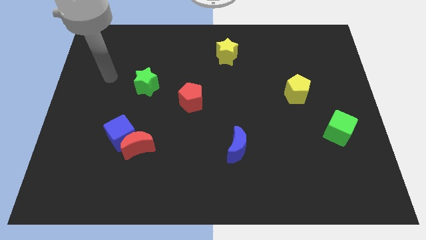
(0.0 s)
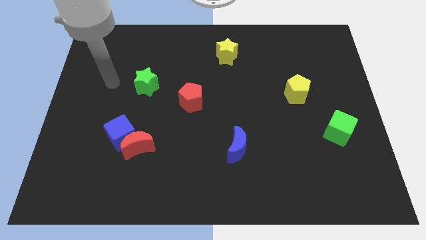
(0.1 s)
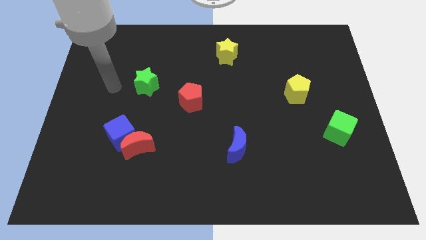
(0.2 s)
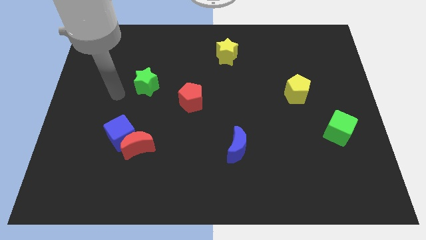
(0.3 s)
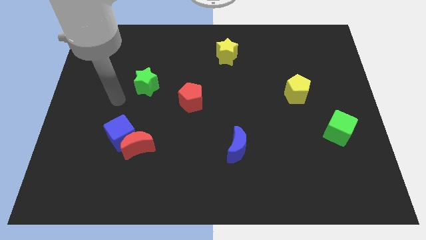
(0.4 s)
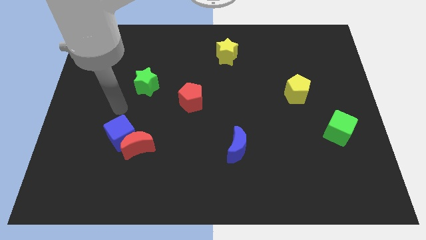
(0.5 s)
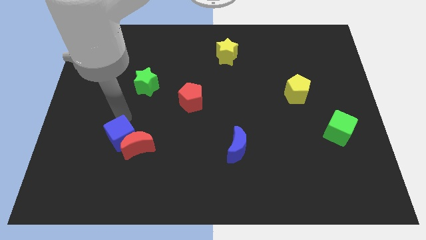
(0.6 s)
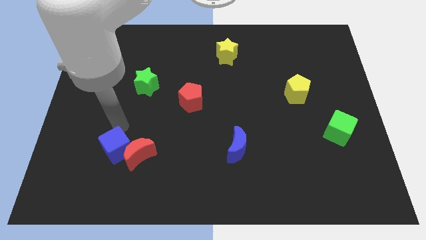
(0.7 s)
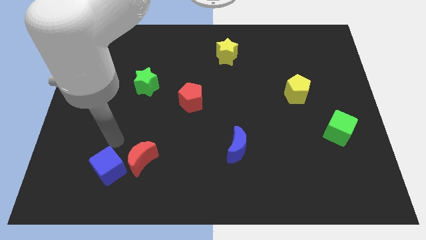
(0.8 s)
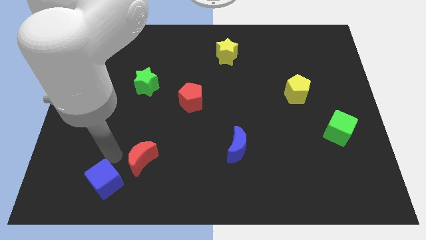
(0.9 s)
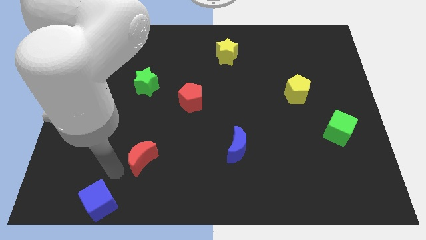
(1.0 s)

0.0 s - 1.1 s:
move the red moon away from the blue cube

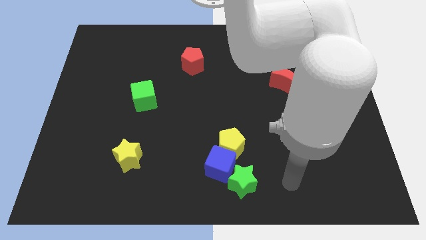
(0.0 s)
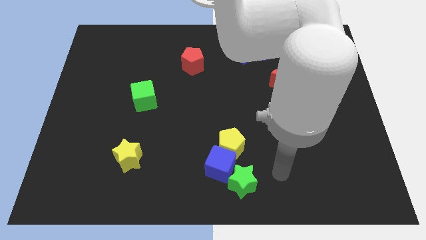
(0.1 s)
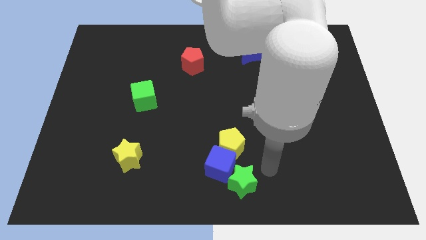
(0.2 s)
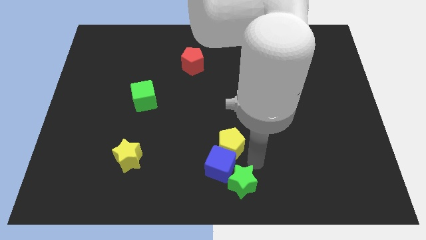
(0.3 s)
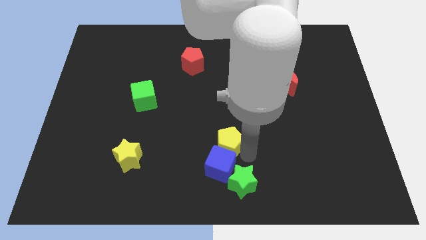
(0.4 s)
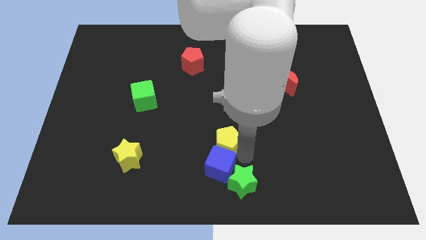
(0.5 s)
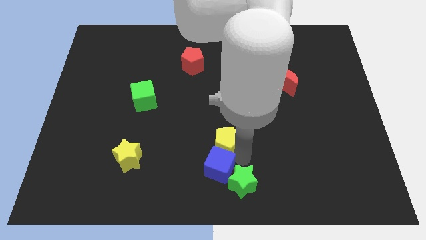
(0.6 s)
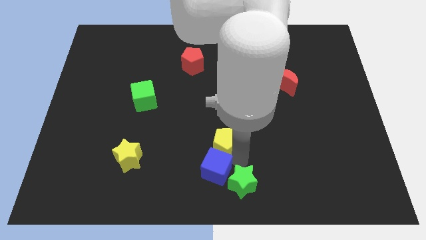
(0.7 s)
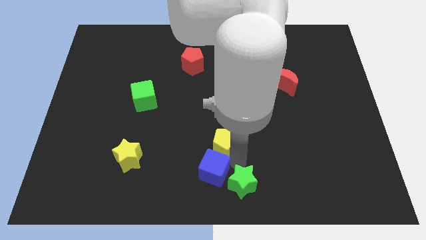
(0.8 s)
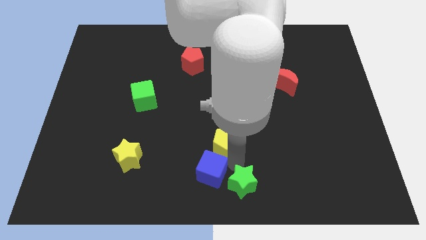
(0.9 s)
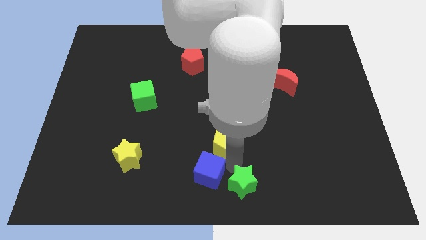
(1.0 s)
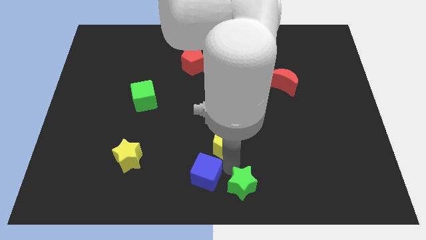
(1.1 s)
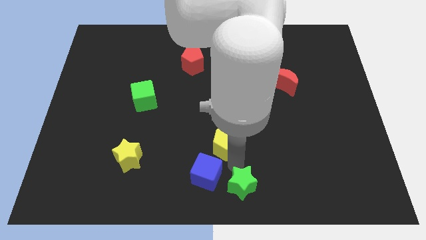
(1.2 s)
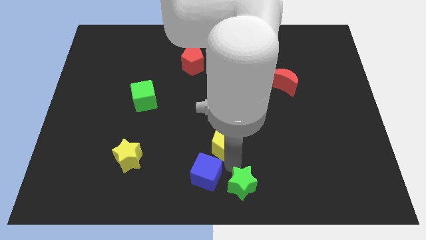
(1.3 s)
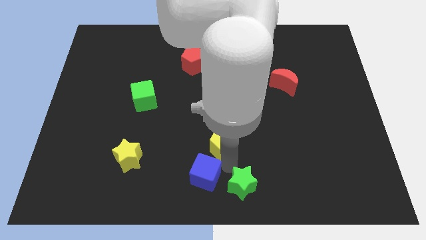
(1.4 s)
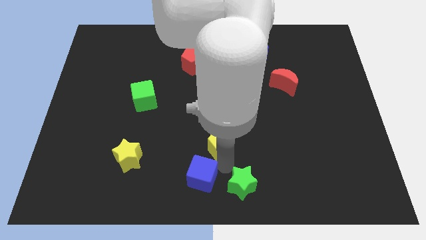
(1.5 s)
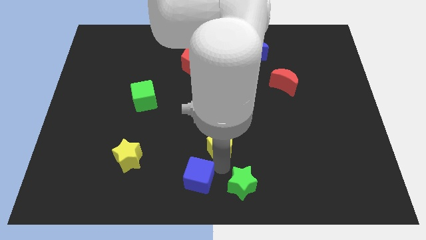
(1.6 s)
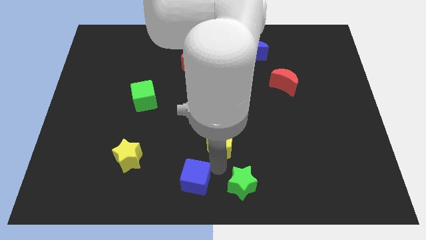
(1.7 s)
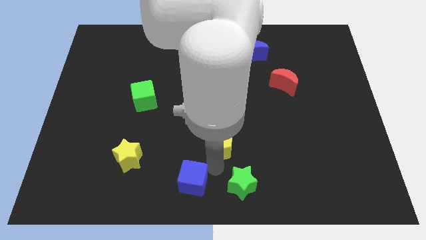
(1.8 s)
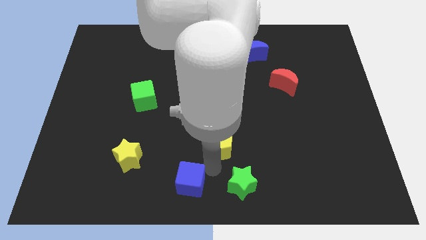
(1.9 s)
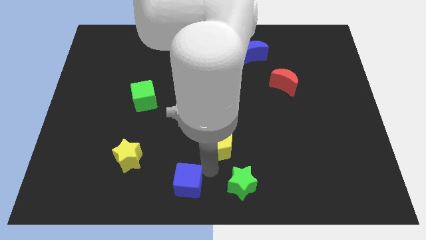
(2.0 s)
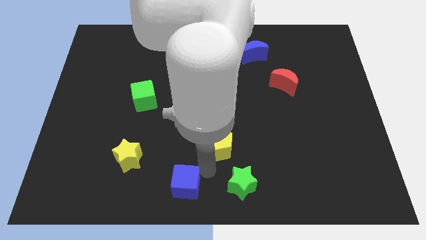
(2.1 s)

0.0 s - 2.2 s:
move the blue cube away from the yellow pentagon and green star

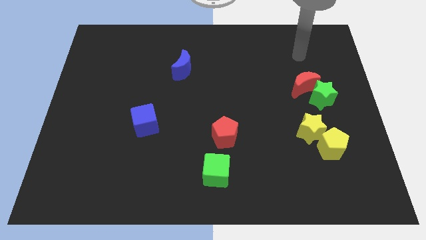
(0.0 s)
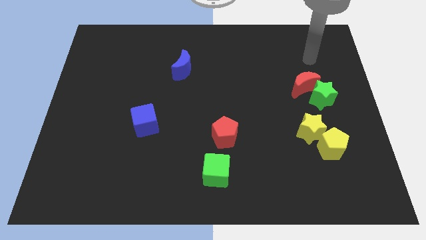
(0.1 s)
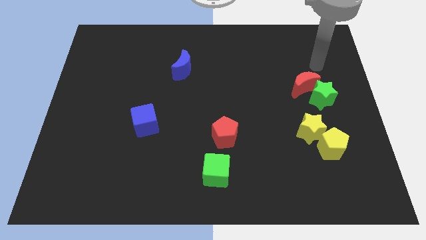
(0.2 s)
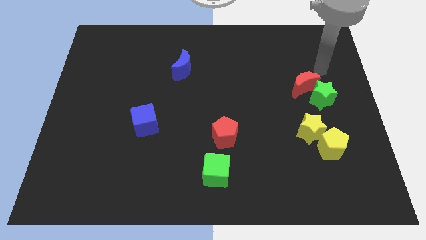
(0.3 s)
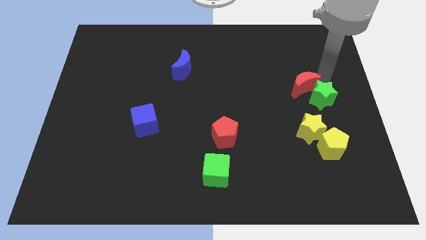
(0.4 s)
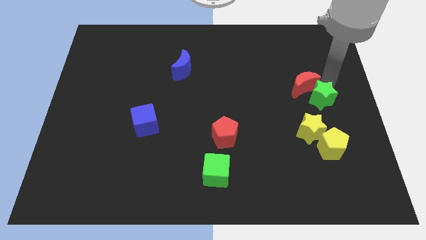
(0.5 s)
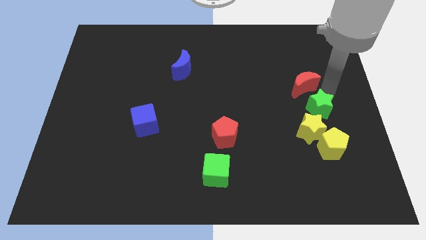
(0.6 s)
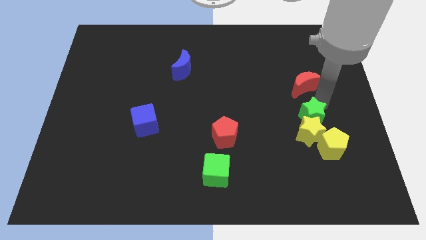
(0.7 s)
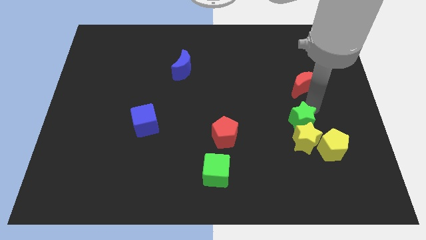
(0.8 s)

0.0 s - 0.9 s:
move the red moon away from the green star

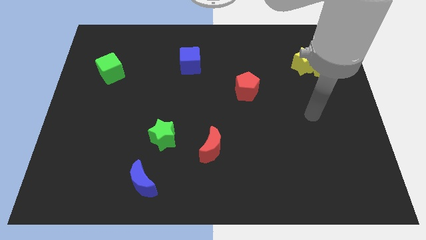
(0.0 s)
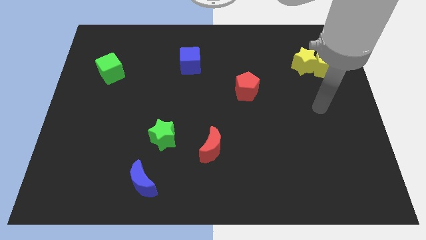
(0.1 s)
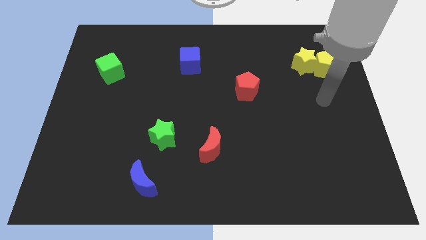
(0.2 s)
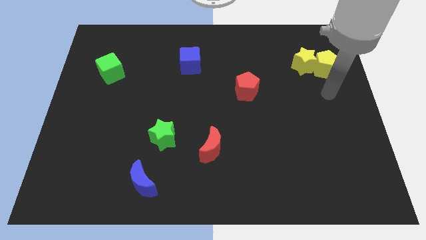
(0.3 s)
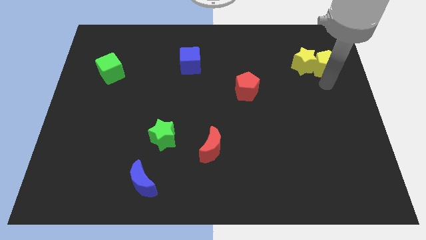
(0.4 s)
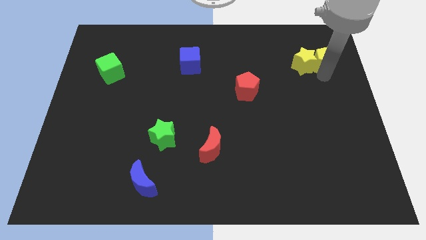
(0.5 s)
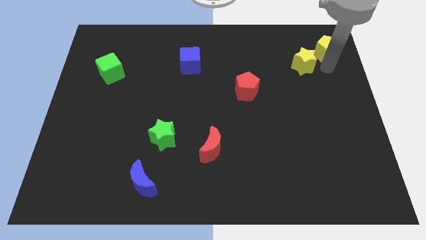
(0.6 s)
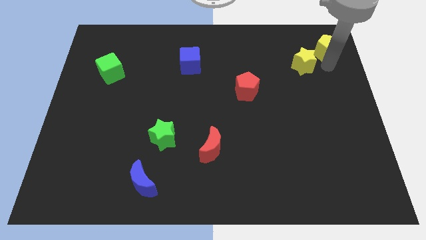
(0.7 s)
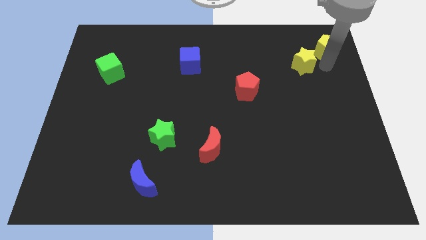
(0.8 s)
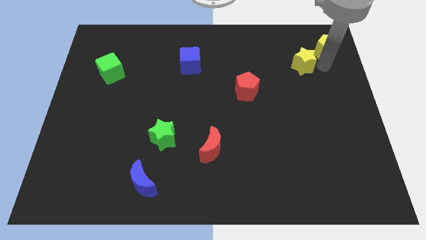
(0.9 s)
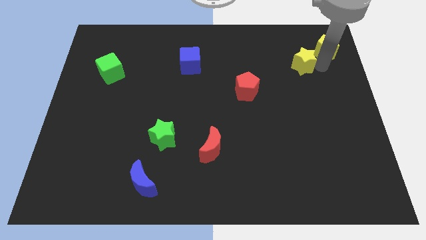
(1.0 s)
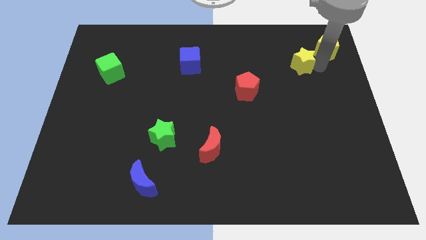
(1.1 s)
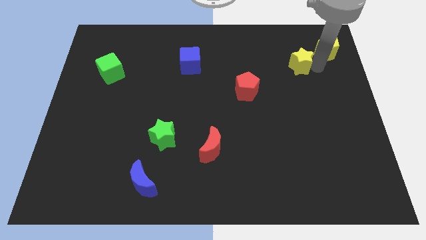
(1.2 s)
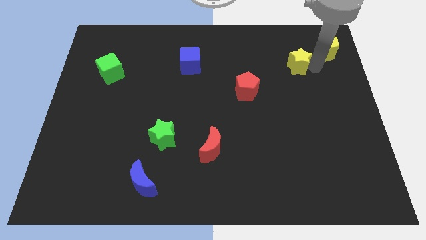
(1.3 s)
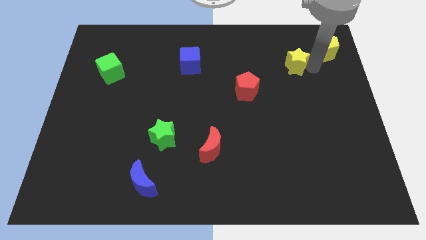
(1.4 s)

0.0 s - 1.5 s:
pull the yellow star apart from the yellow pentagon

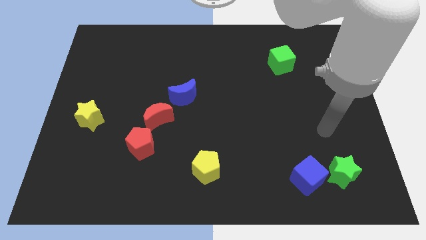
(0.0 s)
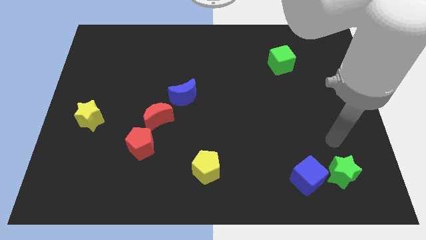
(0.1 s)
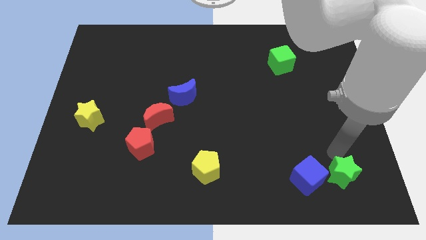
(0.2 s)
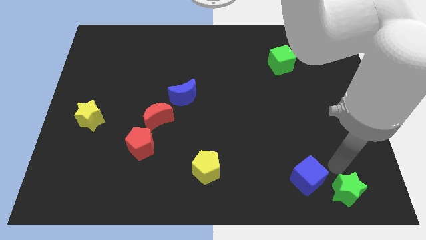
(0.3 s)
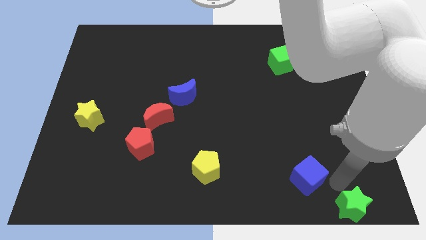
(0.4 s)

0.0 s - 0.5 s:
pull the blue cube apart from the green star

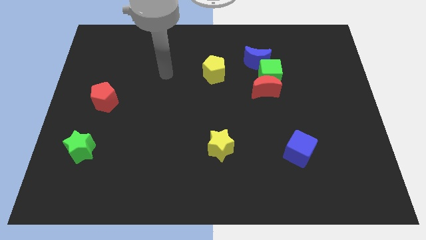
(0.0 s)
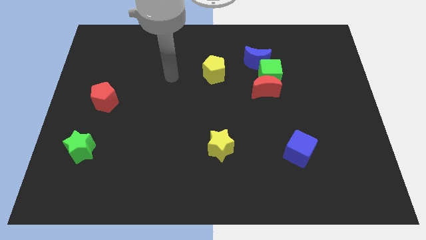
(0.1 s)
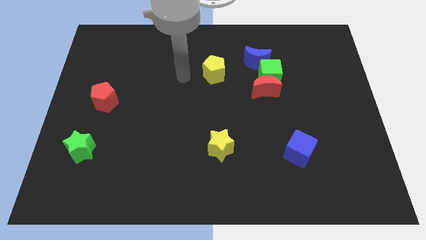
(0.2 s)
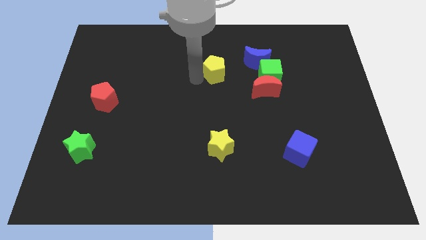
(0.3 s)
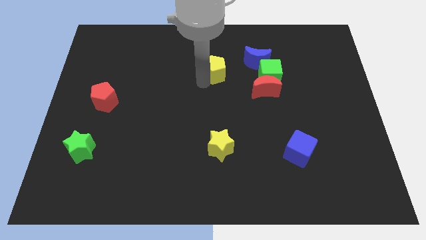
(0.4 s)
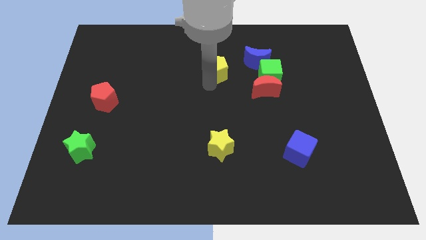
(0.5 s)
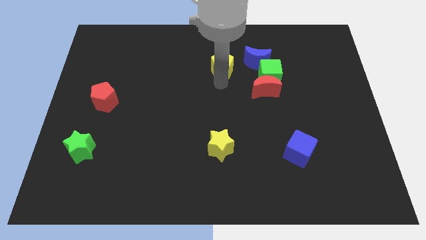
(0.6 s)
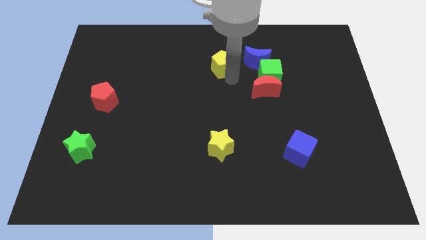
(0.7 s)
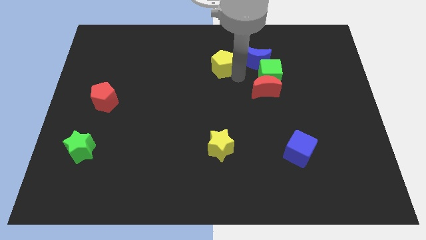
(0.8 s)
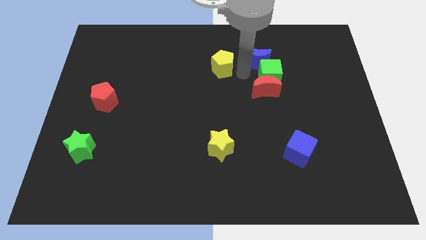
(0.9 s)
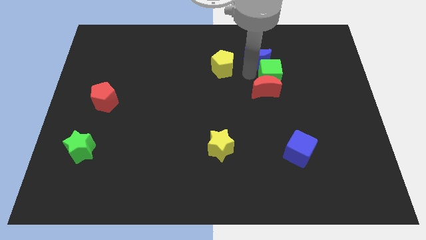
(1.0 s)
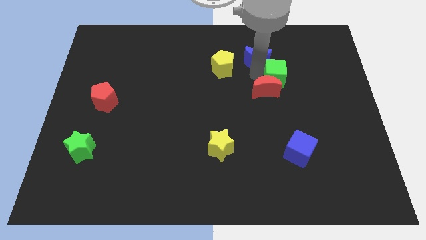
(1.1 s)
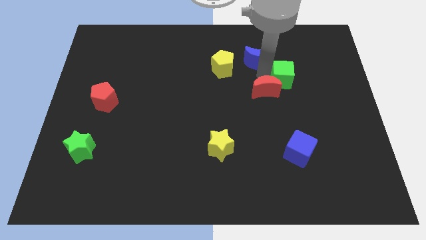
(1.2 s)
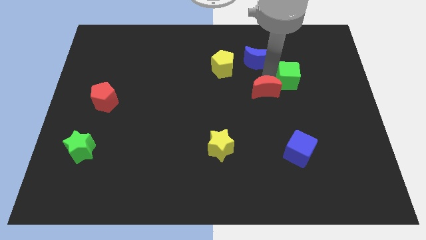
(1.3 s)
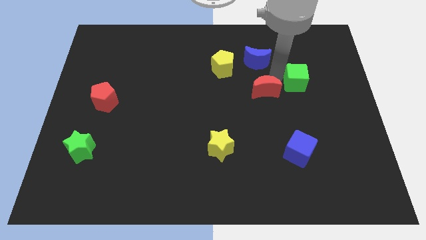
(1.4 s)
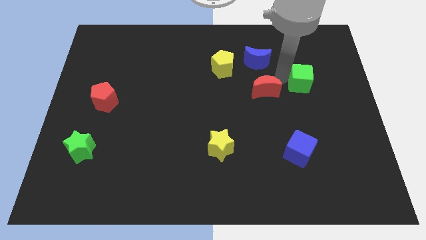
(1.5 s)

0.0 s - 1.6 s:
move the green cube away from the red moon and blue moon

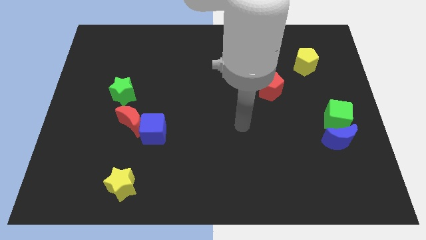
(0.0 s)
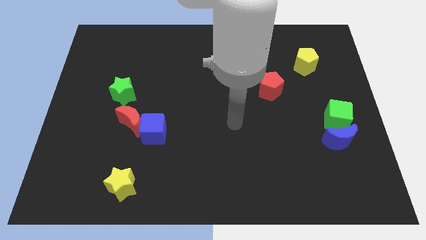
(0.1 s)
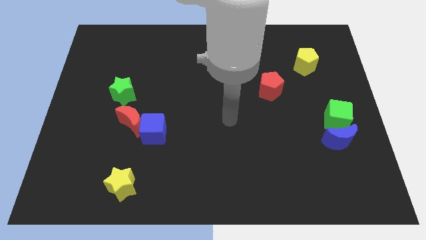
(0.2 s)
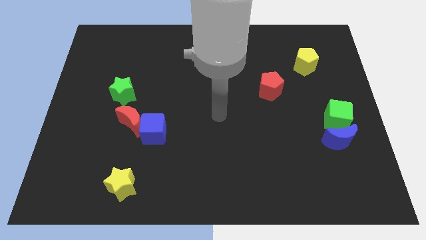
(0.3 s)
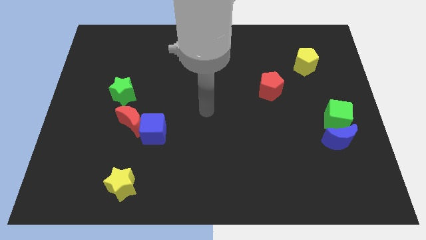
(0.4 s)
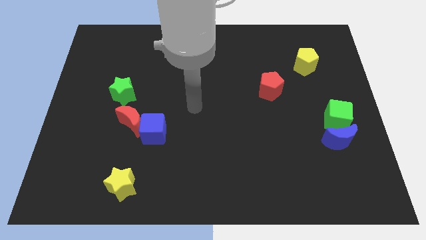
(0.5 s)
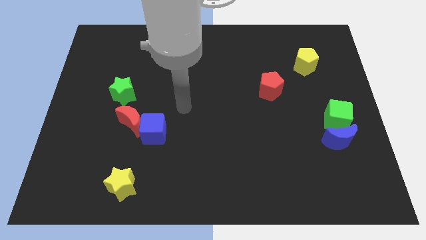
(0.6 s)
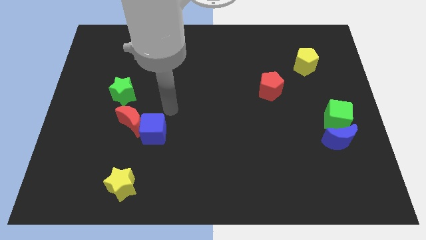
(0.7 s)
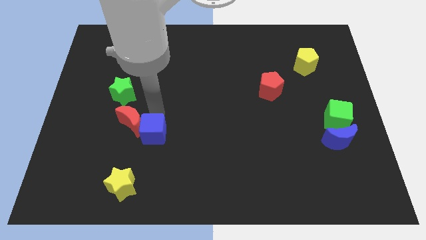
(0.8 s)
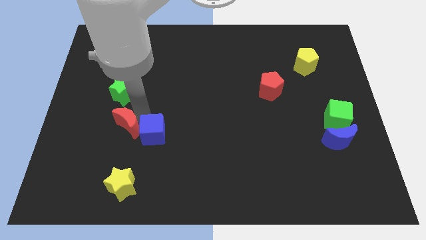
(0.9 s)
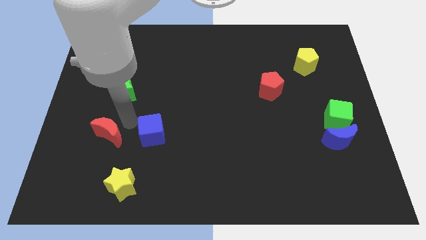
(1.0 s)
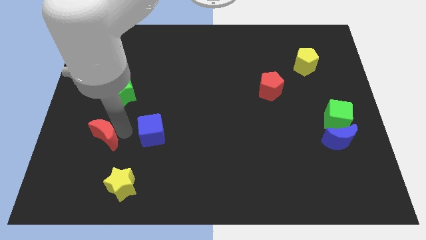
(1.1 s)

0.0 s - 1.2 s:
separate the blue cube from the red moon

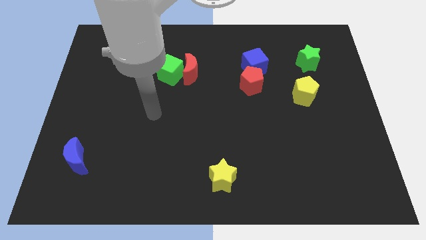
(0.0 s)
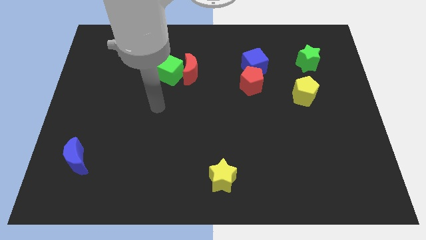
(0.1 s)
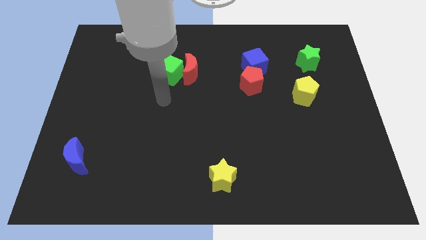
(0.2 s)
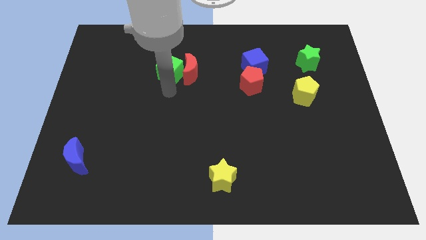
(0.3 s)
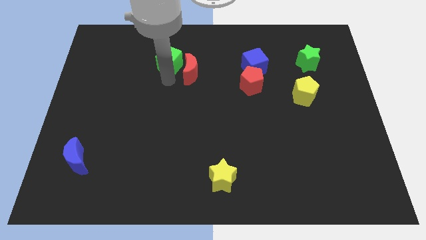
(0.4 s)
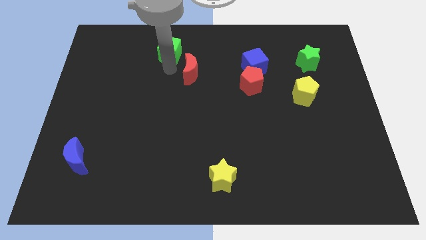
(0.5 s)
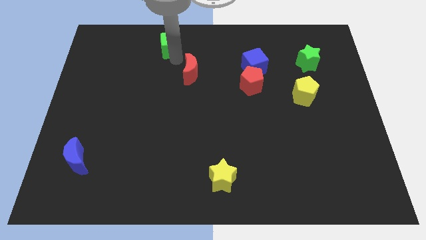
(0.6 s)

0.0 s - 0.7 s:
separate the red moon from the green cube
